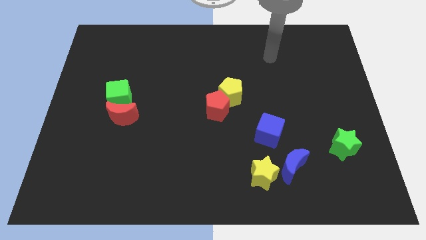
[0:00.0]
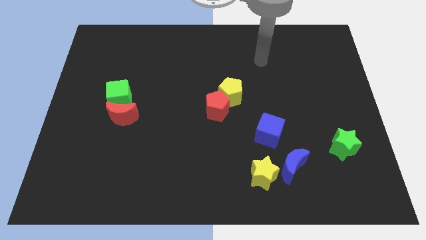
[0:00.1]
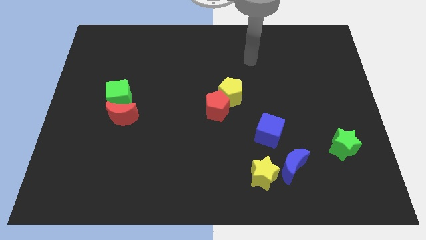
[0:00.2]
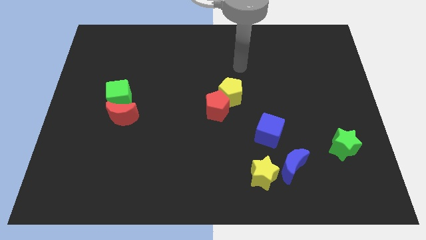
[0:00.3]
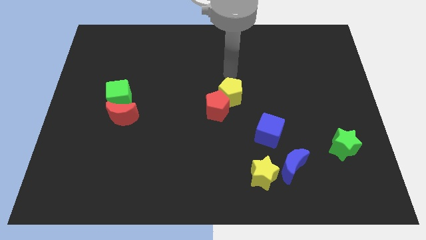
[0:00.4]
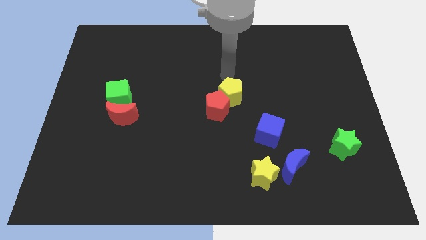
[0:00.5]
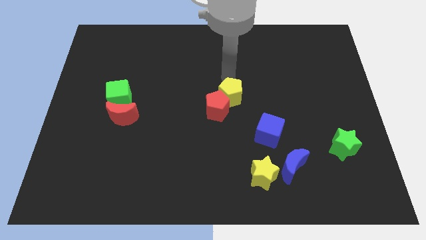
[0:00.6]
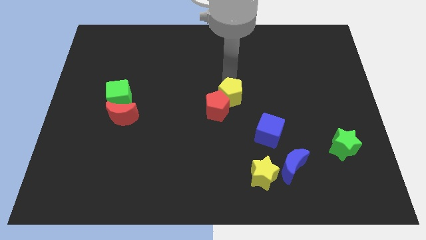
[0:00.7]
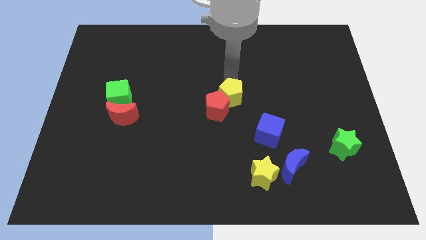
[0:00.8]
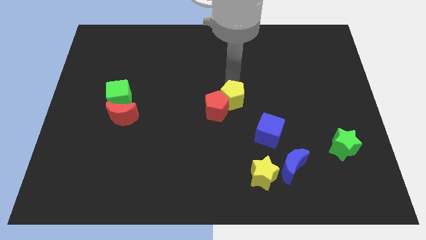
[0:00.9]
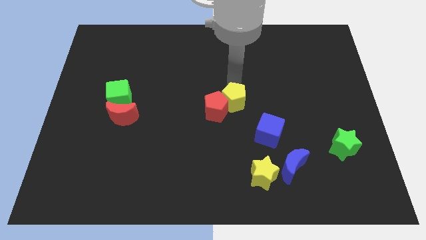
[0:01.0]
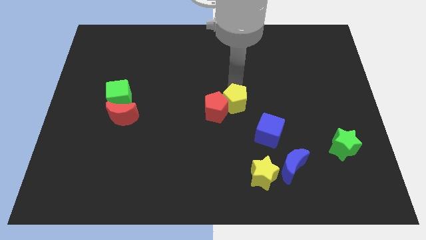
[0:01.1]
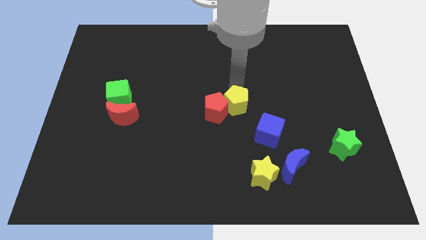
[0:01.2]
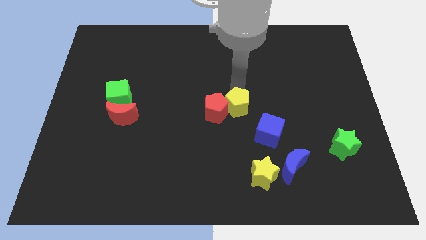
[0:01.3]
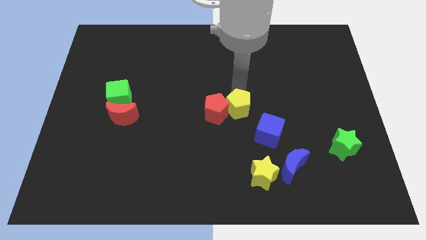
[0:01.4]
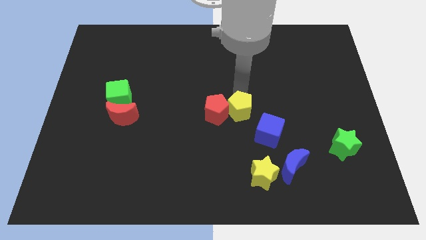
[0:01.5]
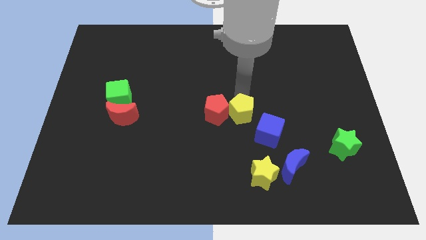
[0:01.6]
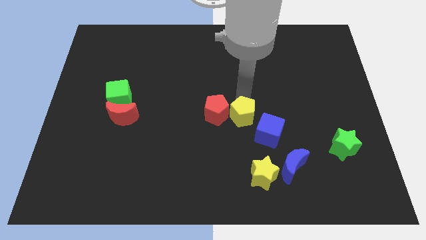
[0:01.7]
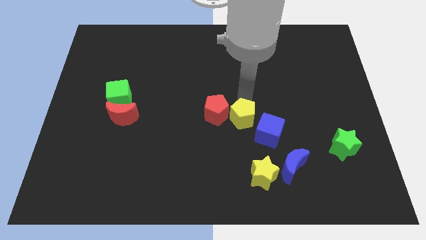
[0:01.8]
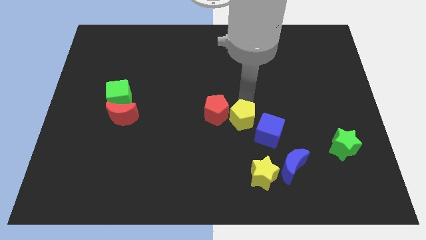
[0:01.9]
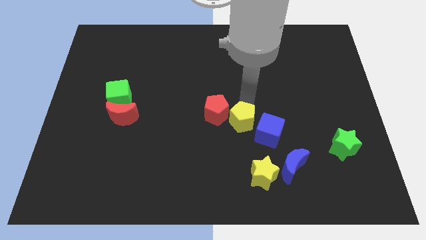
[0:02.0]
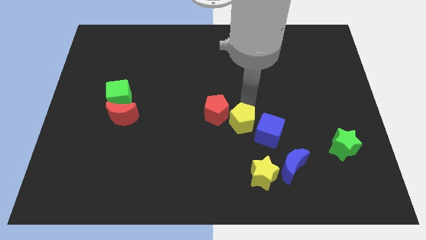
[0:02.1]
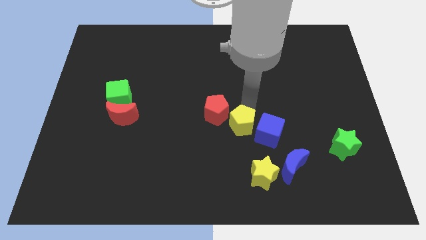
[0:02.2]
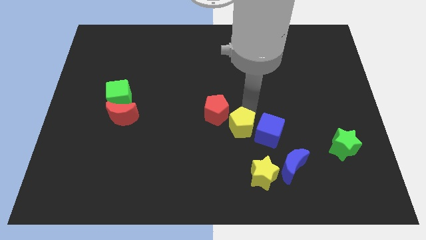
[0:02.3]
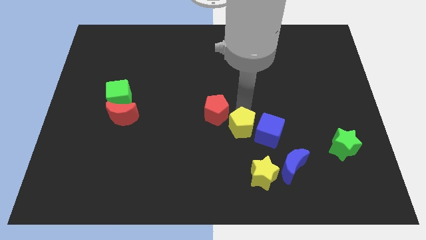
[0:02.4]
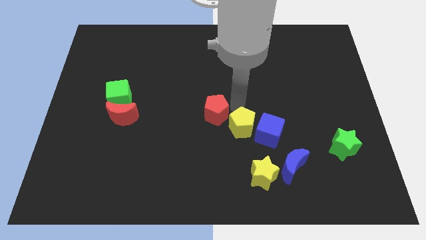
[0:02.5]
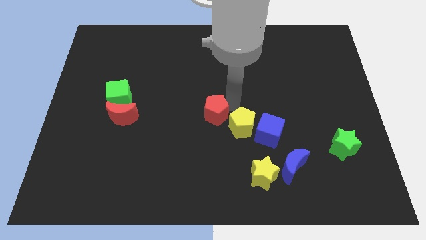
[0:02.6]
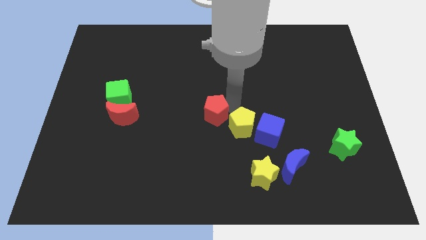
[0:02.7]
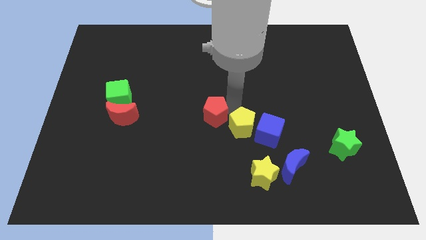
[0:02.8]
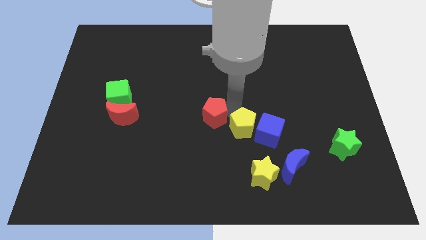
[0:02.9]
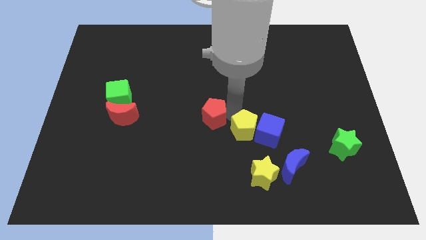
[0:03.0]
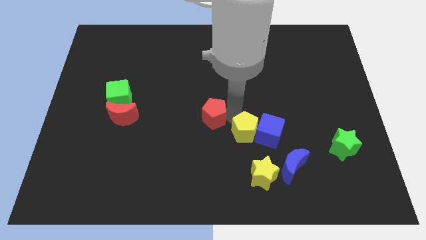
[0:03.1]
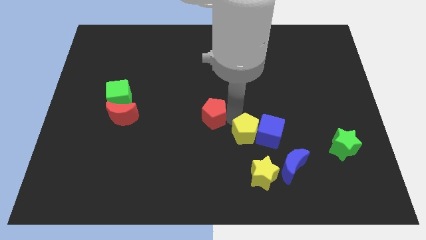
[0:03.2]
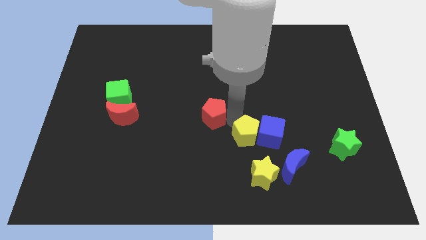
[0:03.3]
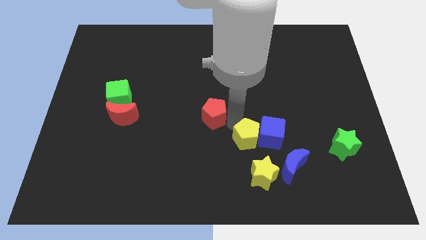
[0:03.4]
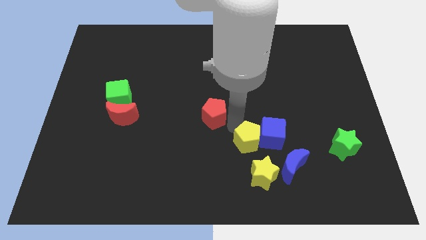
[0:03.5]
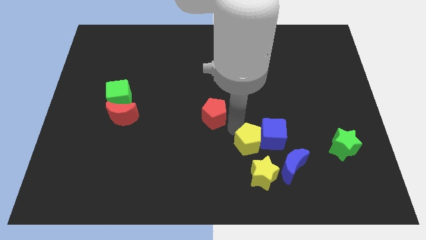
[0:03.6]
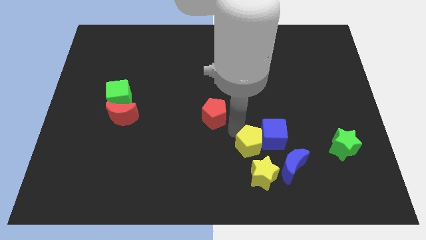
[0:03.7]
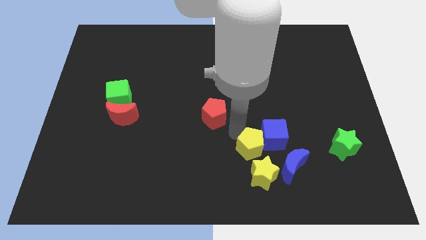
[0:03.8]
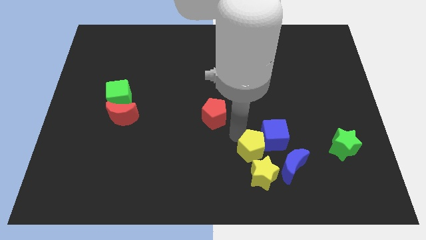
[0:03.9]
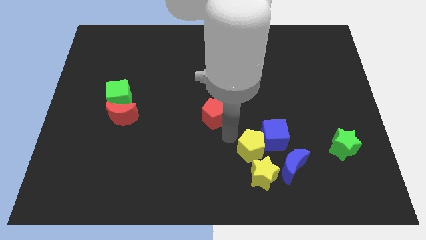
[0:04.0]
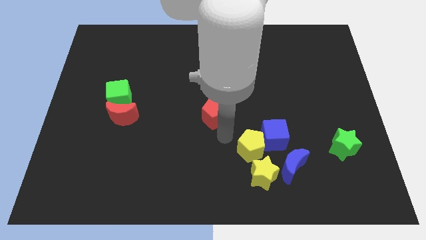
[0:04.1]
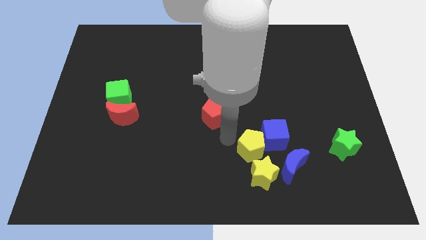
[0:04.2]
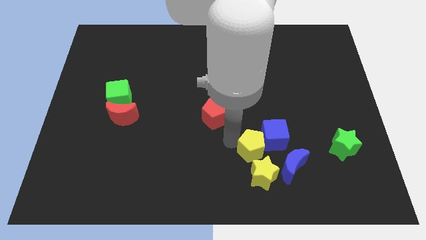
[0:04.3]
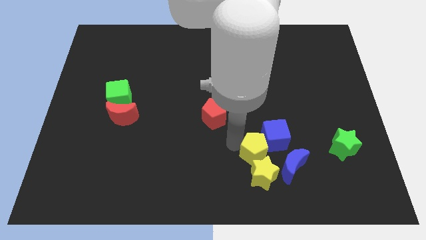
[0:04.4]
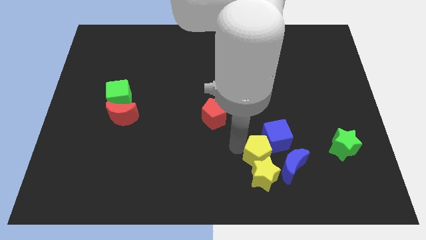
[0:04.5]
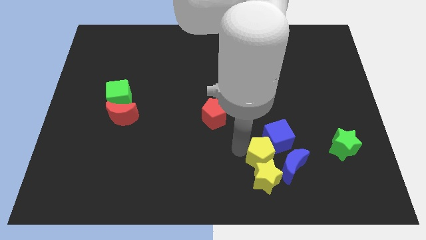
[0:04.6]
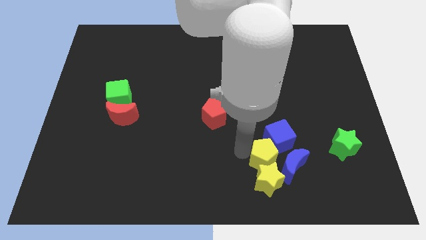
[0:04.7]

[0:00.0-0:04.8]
push the yellow pentagon next to the blue moon

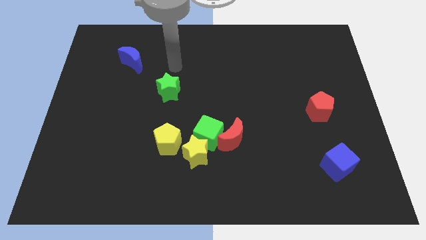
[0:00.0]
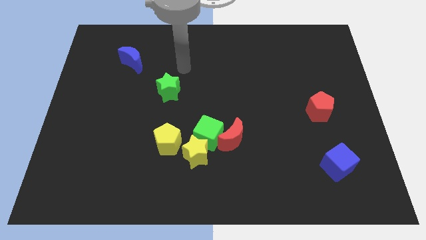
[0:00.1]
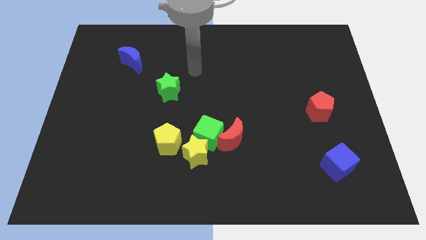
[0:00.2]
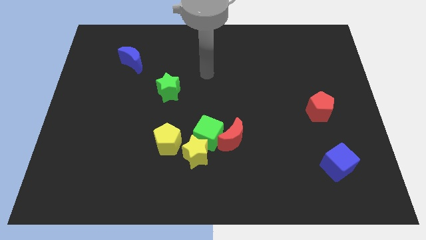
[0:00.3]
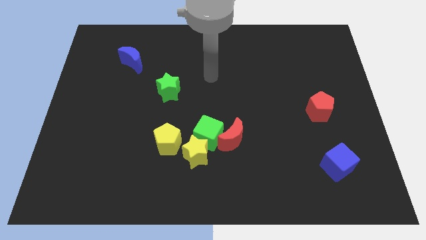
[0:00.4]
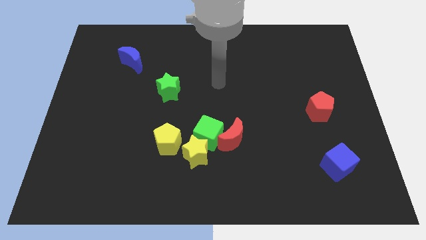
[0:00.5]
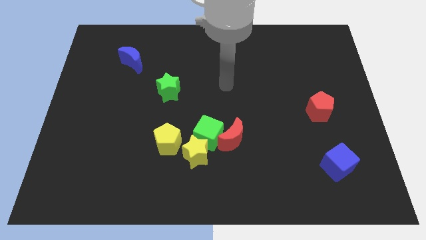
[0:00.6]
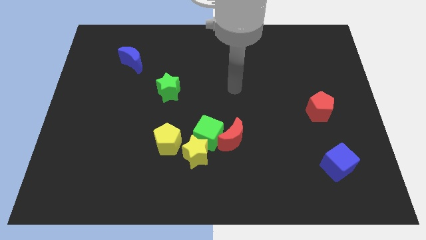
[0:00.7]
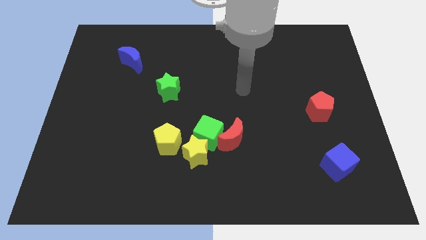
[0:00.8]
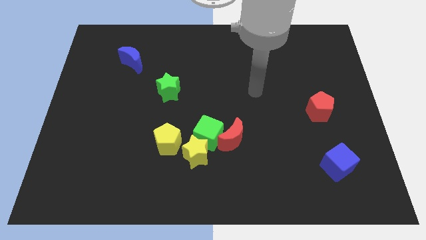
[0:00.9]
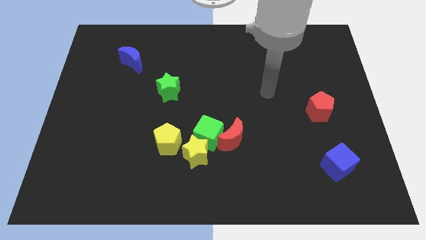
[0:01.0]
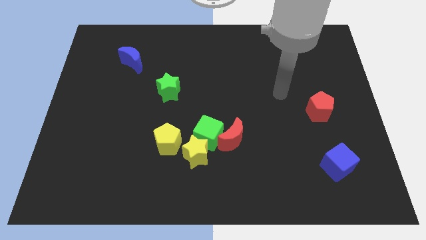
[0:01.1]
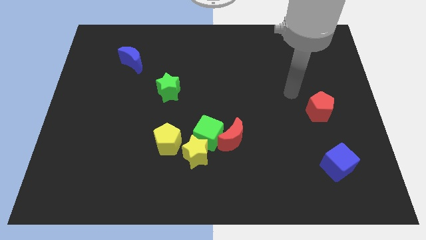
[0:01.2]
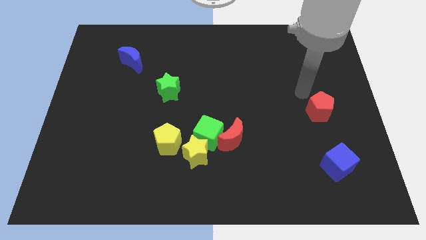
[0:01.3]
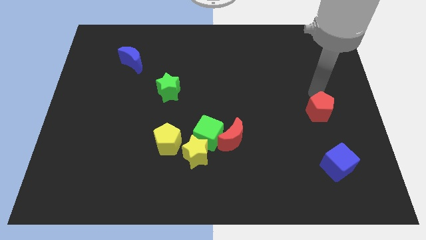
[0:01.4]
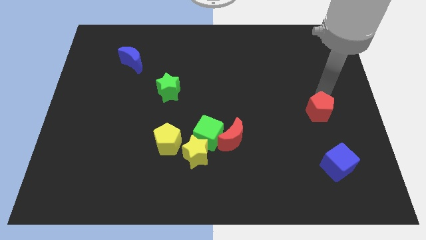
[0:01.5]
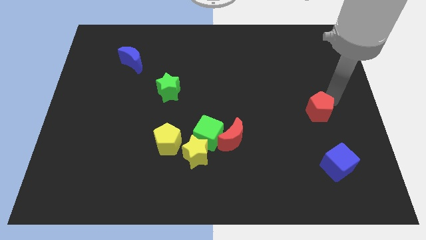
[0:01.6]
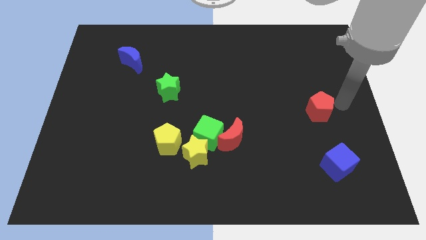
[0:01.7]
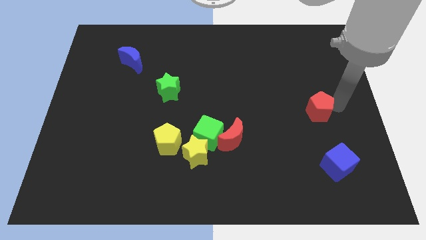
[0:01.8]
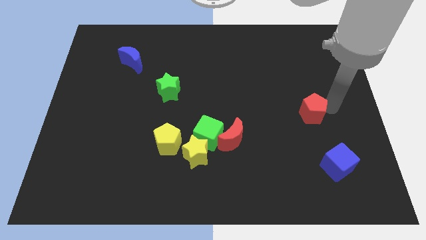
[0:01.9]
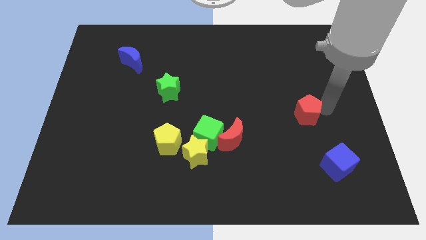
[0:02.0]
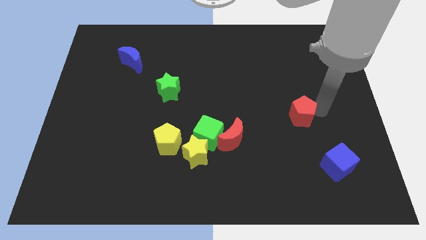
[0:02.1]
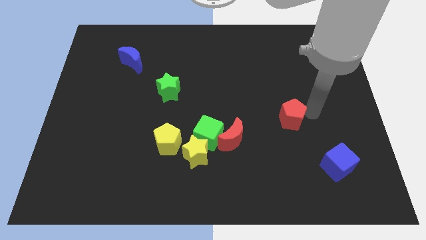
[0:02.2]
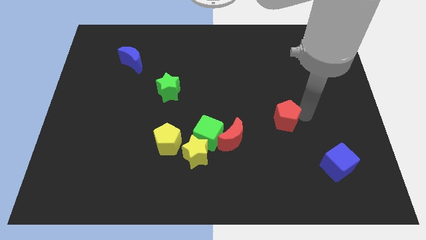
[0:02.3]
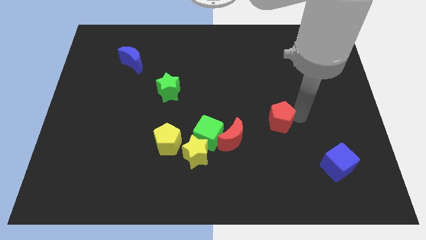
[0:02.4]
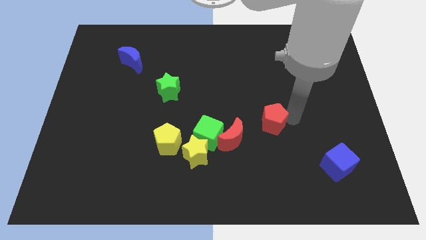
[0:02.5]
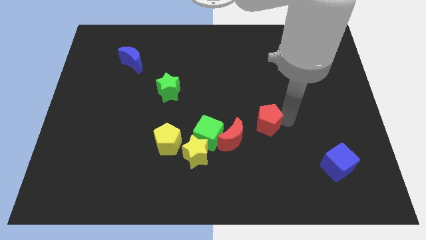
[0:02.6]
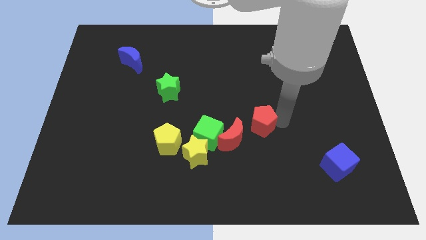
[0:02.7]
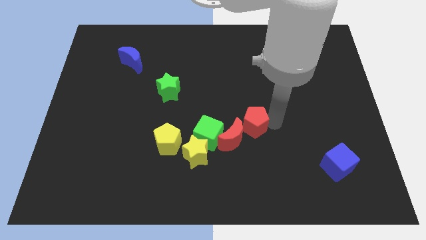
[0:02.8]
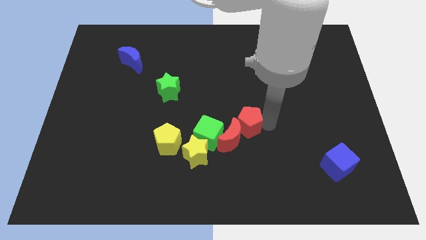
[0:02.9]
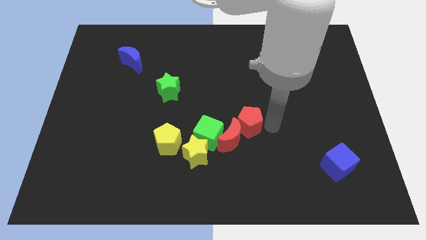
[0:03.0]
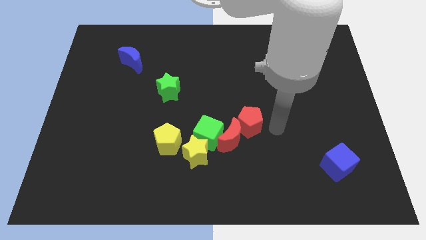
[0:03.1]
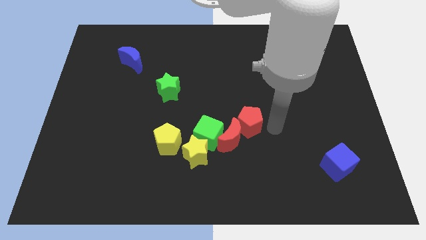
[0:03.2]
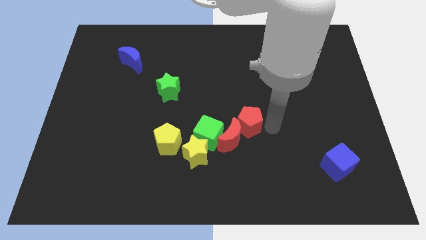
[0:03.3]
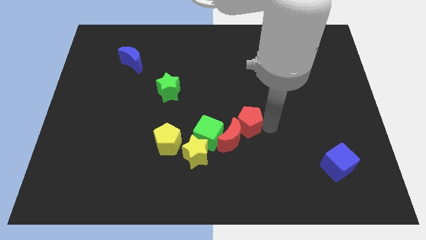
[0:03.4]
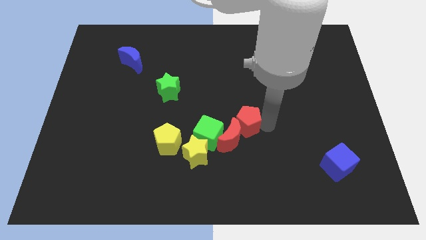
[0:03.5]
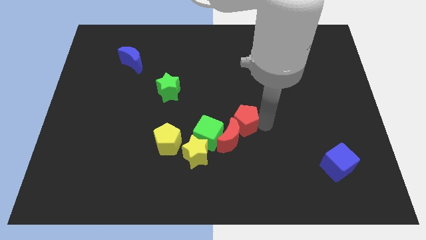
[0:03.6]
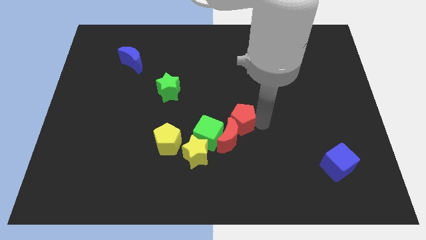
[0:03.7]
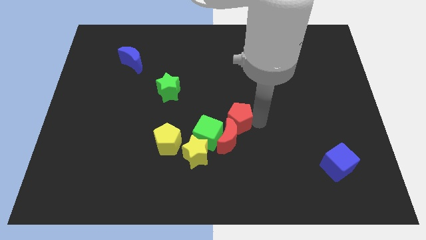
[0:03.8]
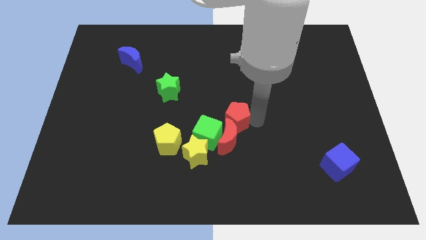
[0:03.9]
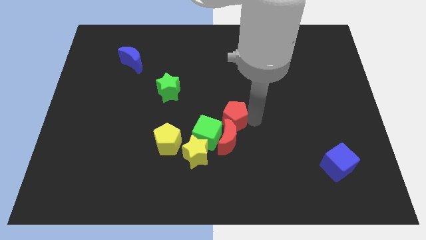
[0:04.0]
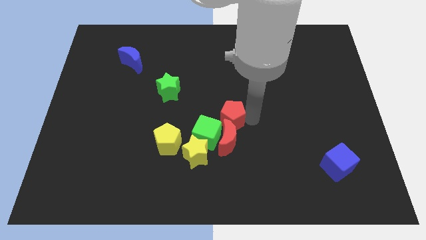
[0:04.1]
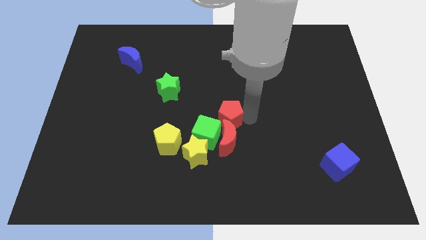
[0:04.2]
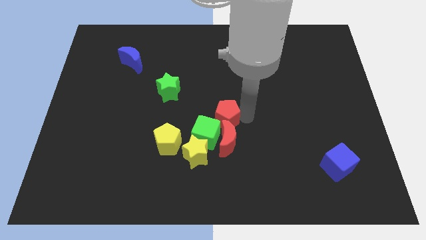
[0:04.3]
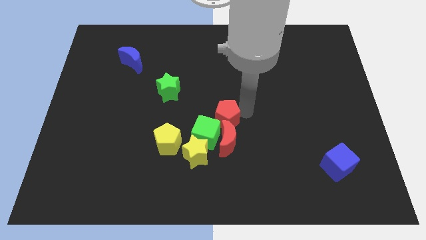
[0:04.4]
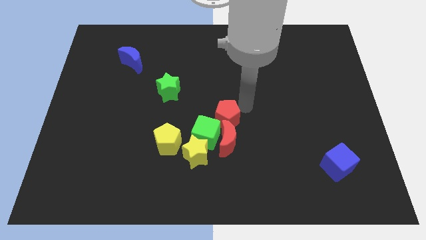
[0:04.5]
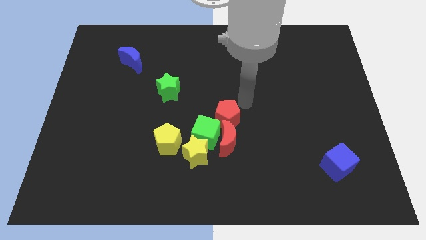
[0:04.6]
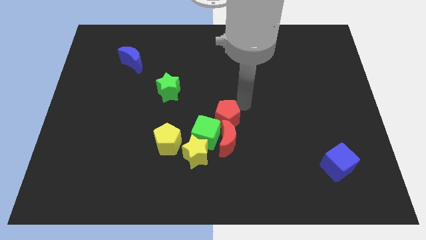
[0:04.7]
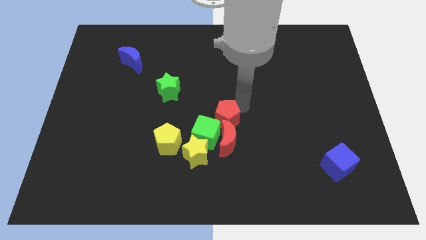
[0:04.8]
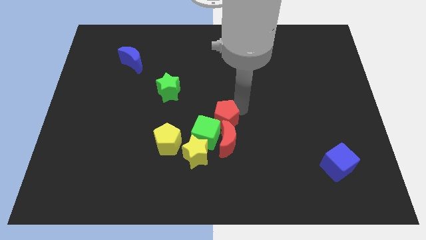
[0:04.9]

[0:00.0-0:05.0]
put the red pentagon to the green cube
